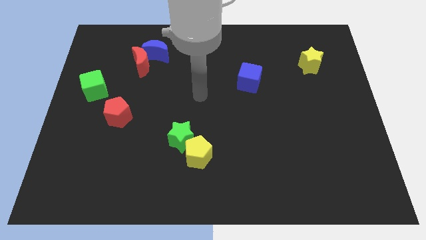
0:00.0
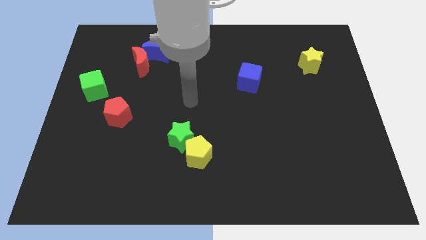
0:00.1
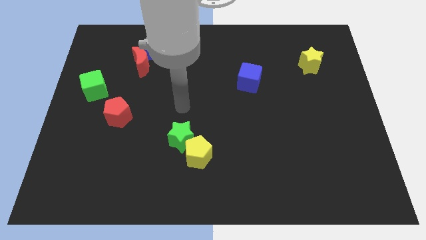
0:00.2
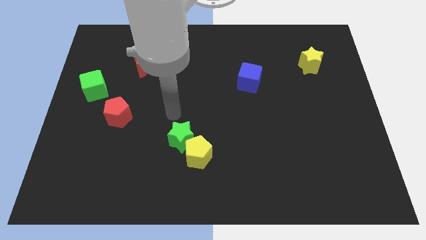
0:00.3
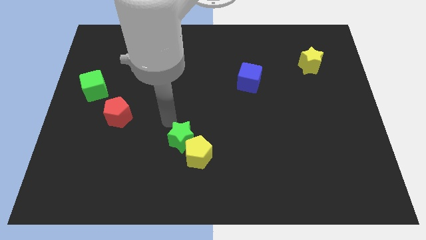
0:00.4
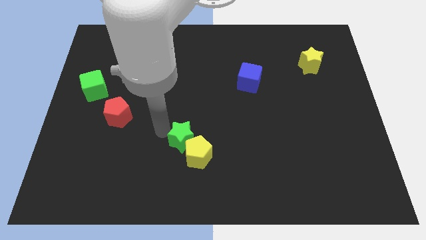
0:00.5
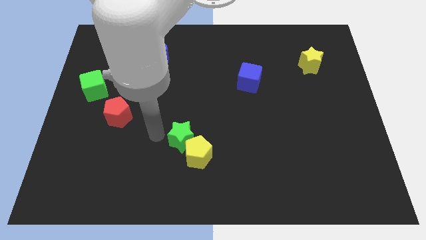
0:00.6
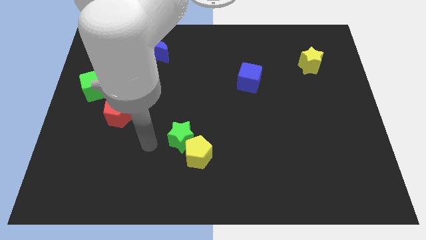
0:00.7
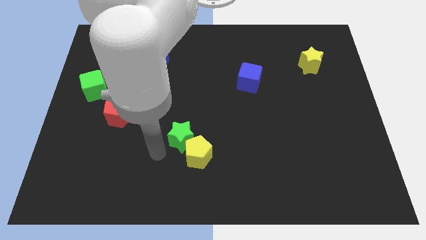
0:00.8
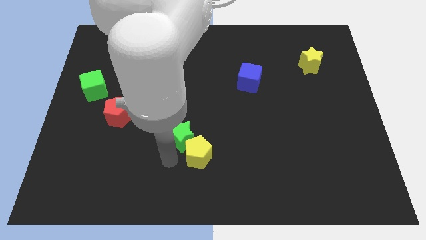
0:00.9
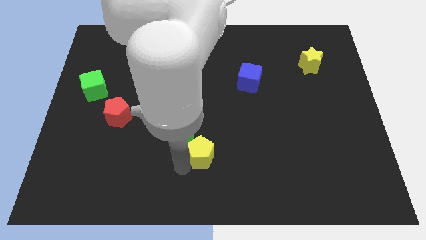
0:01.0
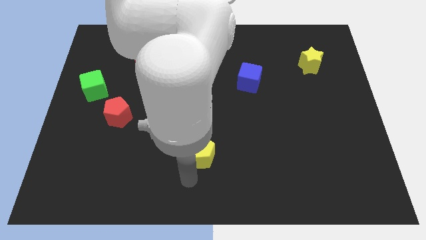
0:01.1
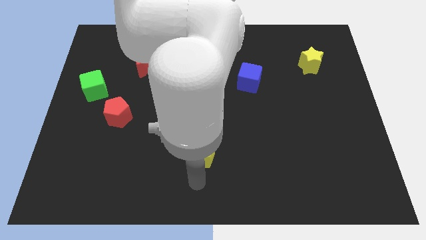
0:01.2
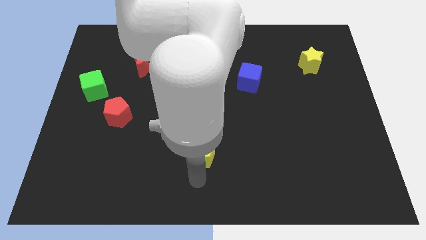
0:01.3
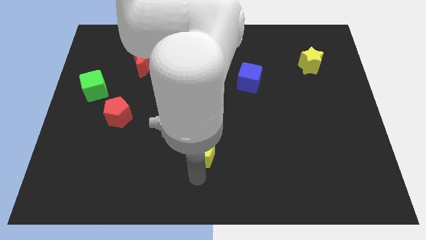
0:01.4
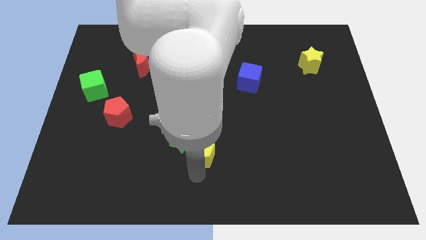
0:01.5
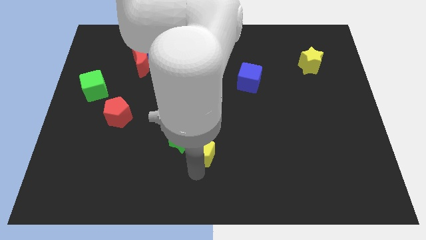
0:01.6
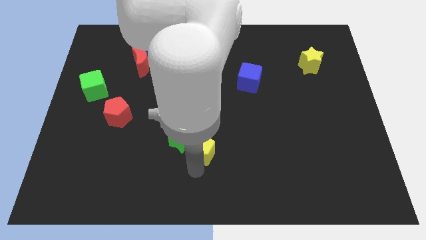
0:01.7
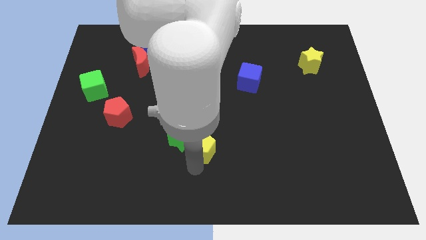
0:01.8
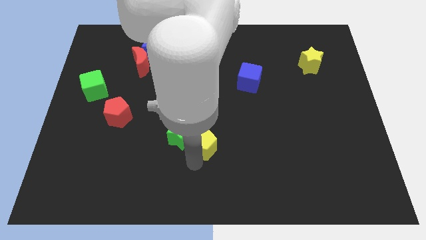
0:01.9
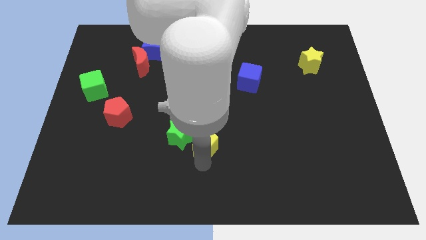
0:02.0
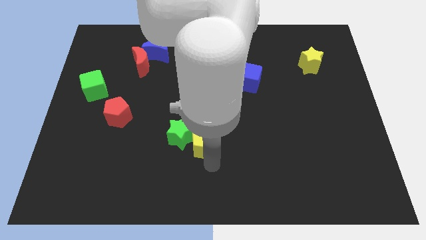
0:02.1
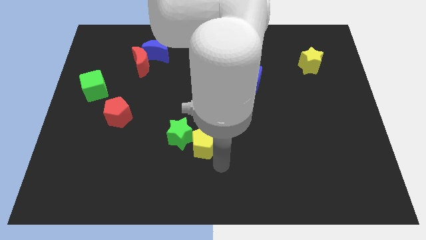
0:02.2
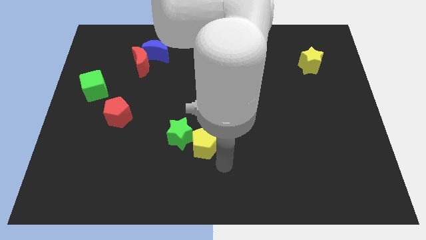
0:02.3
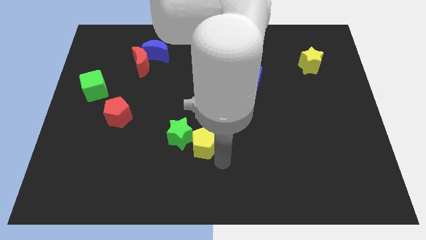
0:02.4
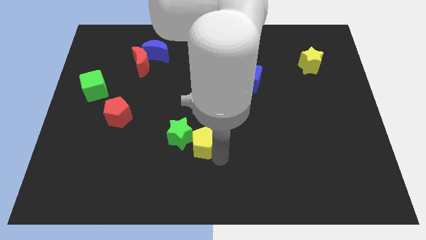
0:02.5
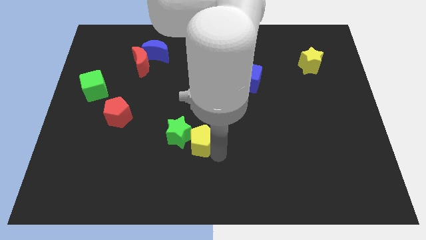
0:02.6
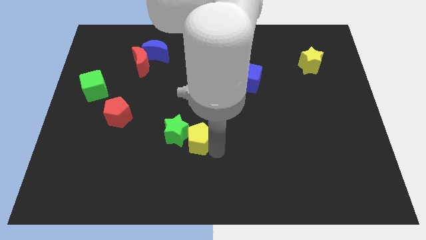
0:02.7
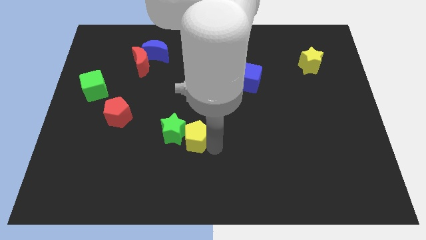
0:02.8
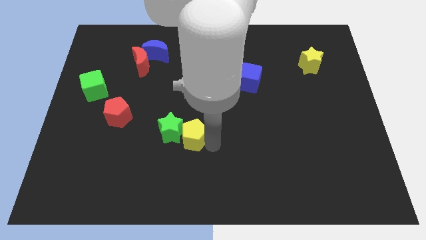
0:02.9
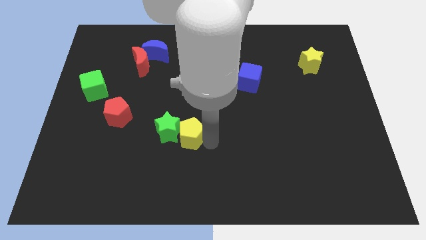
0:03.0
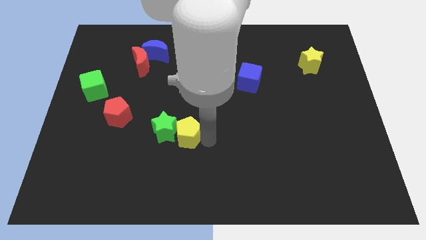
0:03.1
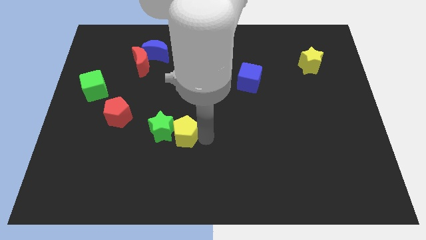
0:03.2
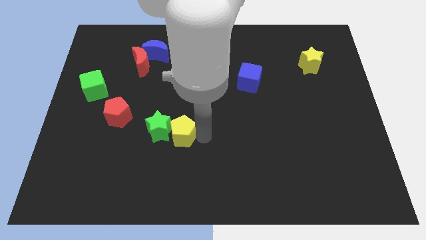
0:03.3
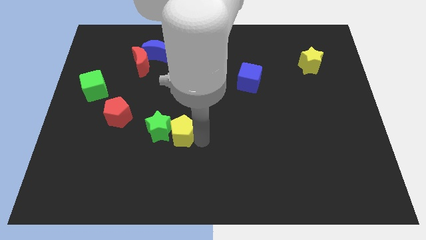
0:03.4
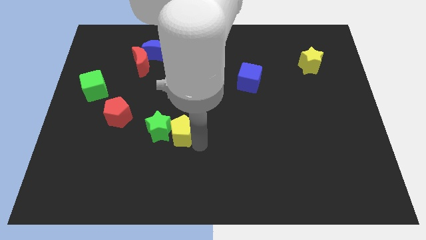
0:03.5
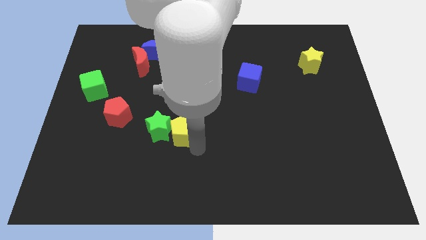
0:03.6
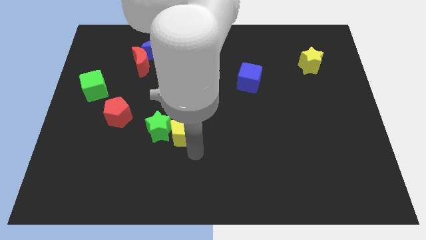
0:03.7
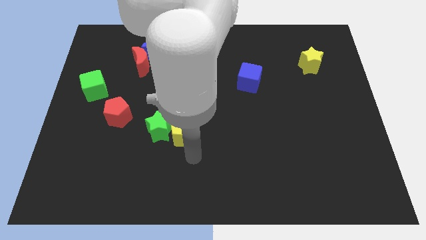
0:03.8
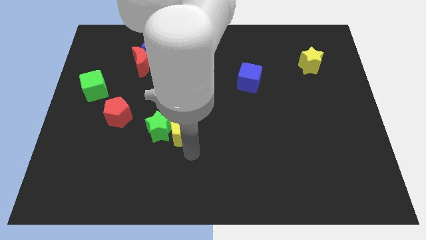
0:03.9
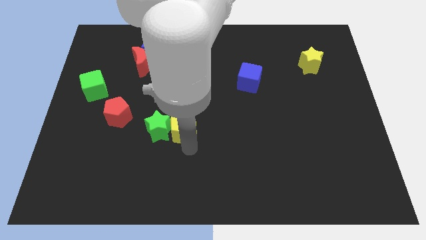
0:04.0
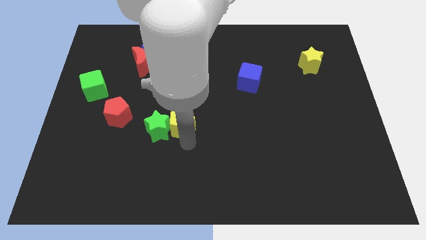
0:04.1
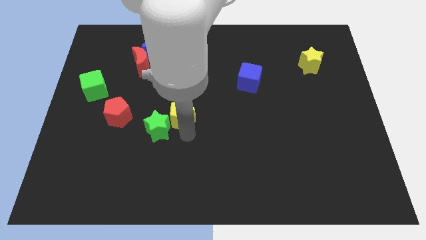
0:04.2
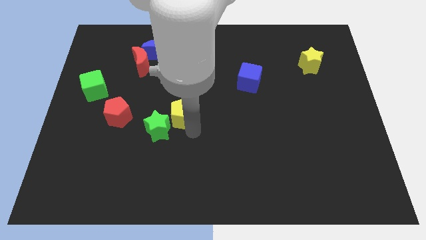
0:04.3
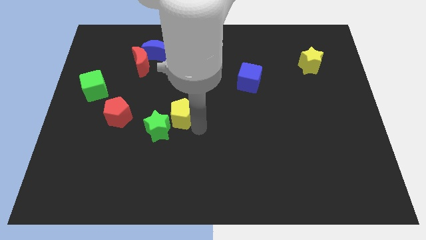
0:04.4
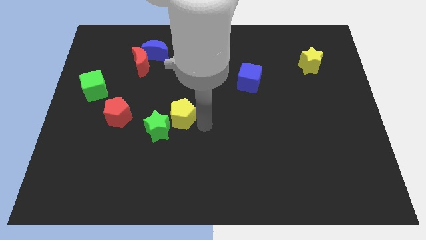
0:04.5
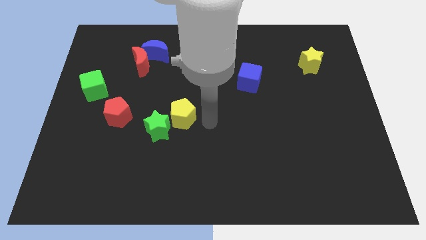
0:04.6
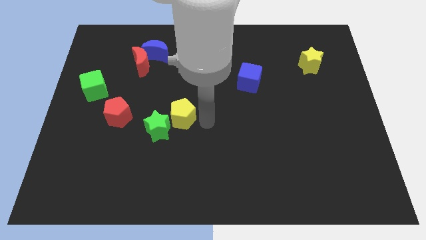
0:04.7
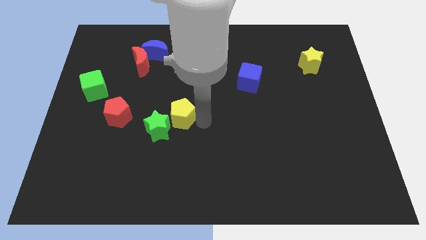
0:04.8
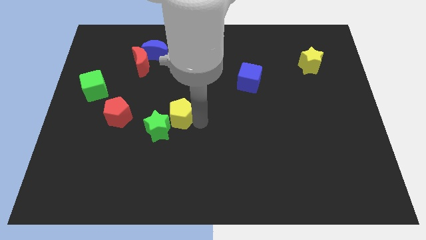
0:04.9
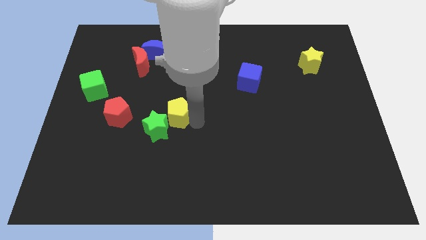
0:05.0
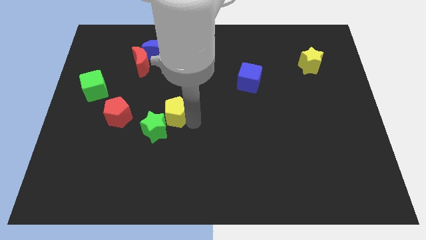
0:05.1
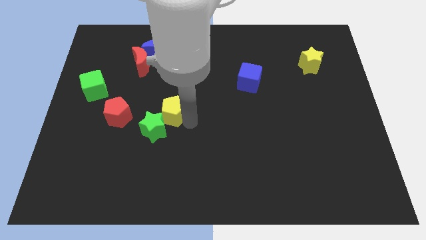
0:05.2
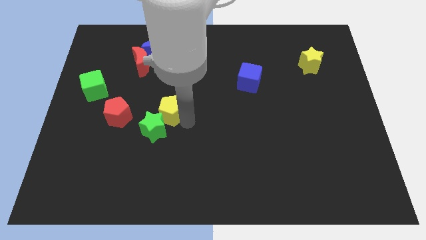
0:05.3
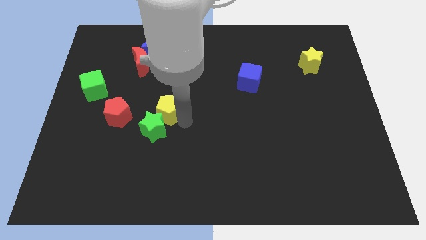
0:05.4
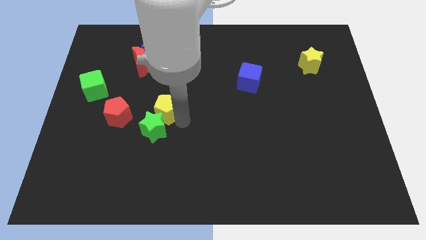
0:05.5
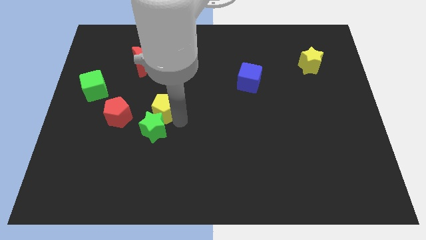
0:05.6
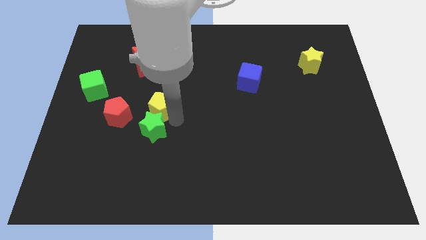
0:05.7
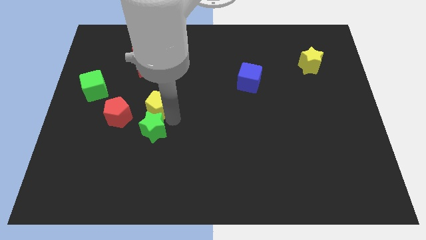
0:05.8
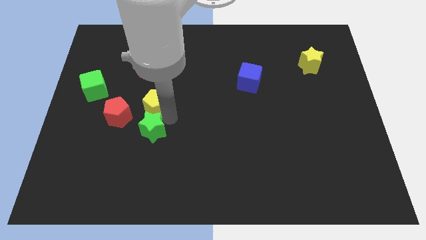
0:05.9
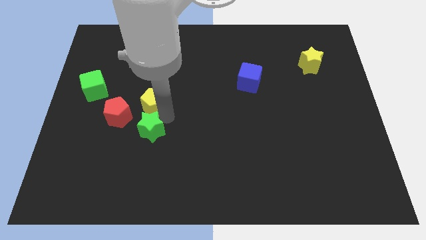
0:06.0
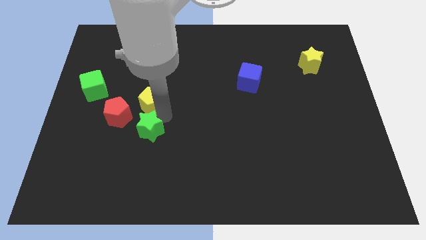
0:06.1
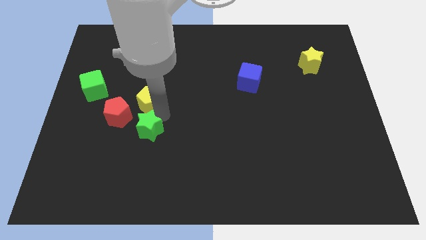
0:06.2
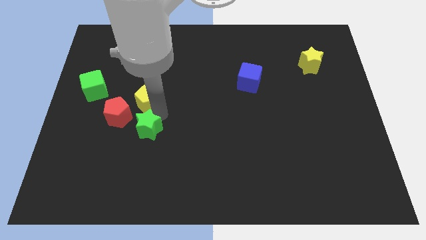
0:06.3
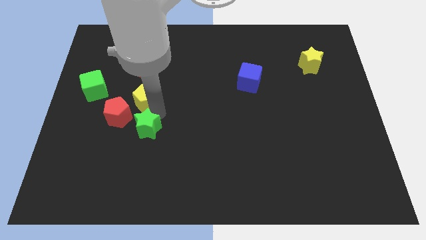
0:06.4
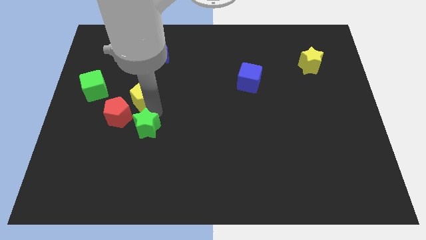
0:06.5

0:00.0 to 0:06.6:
move the yellow pentagon up and to the left

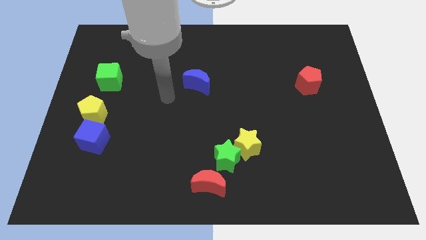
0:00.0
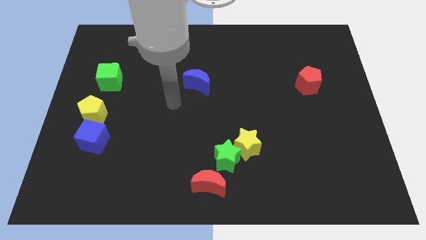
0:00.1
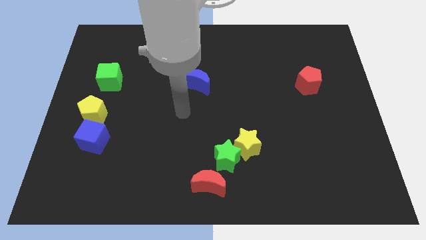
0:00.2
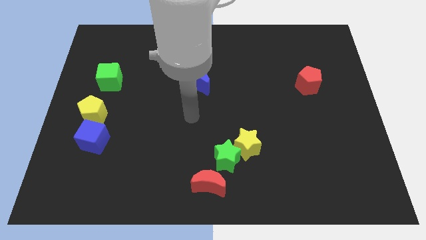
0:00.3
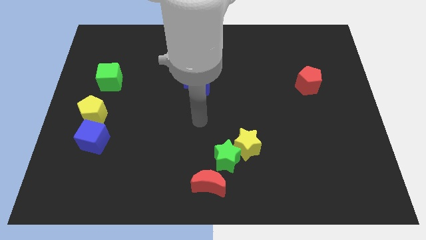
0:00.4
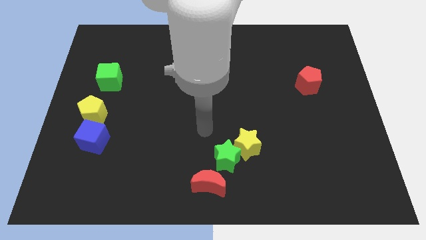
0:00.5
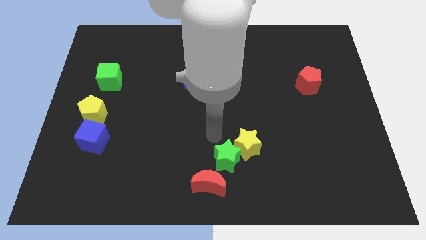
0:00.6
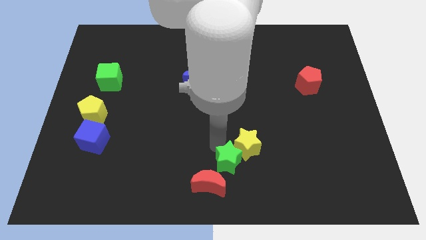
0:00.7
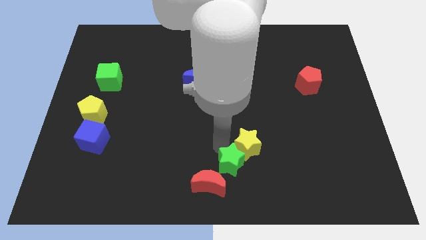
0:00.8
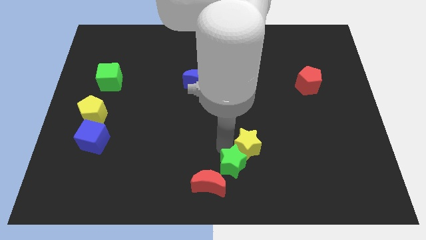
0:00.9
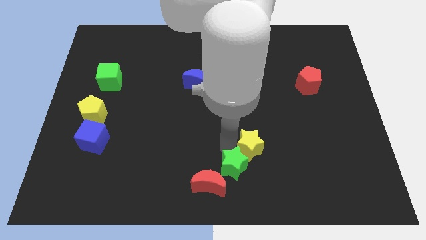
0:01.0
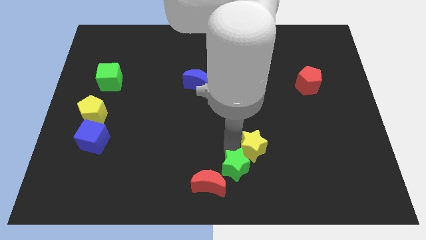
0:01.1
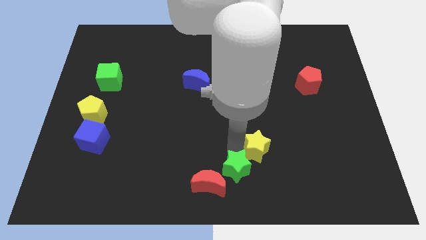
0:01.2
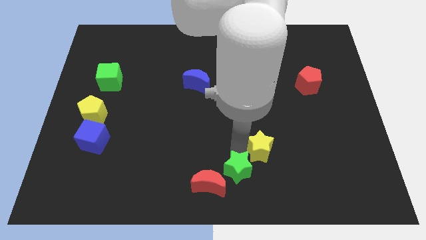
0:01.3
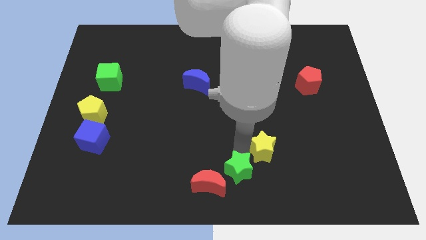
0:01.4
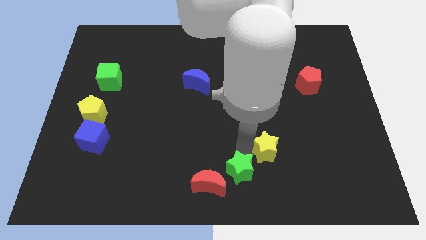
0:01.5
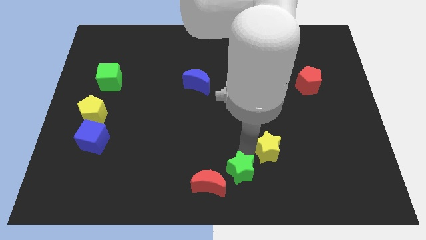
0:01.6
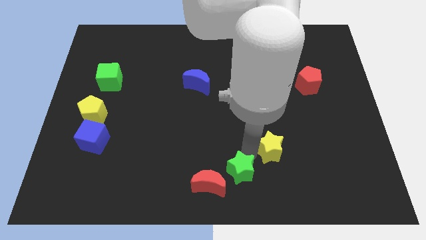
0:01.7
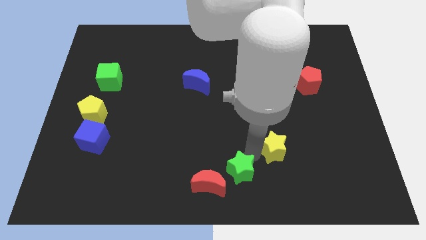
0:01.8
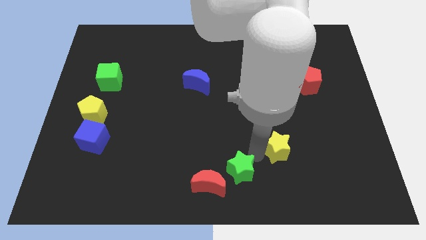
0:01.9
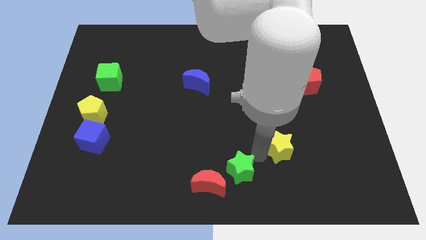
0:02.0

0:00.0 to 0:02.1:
slide the yellow star a bit right
